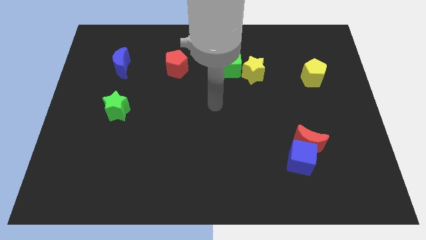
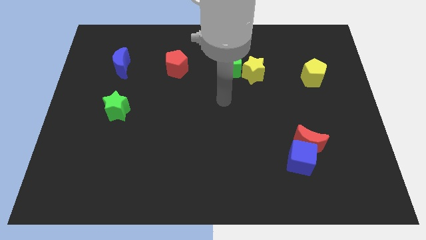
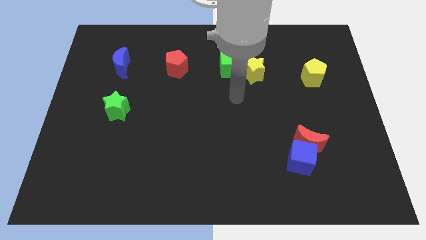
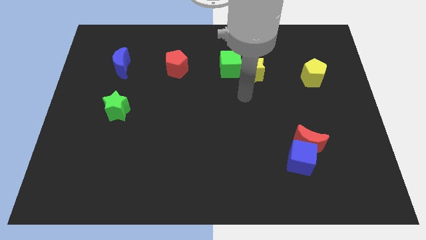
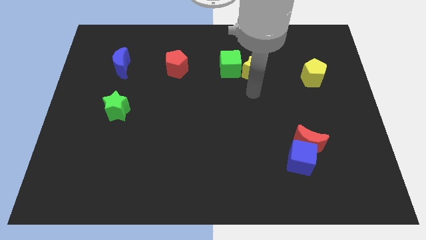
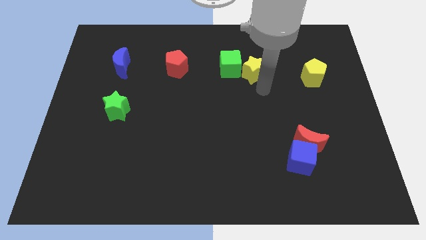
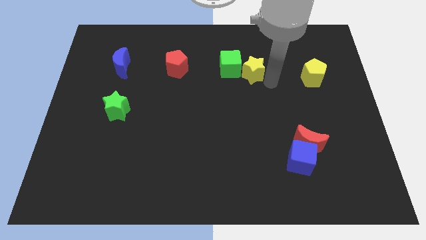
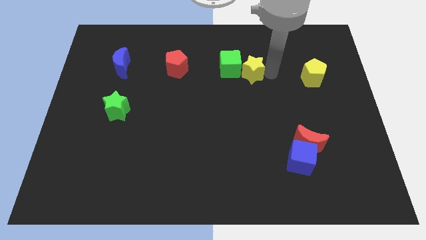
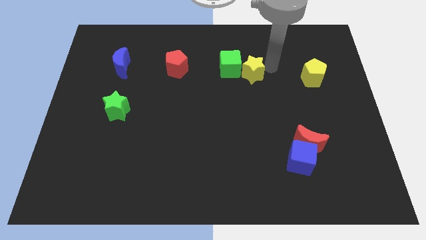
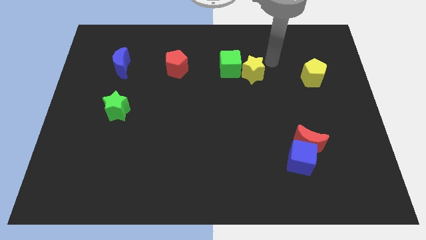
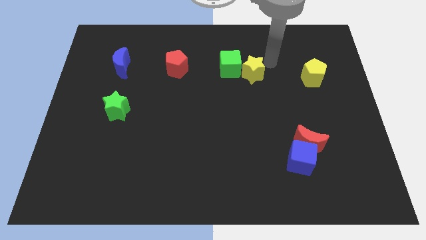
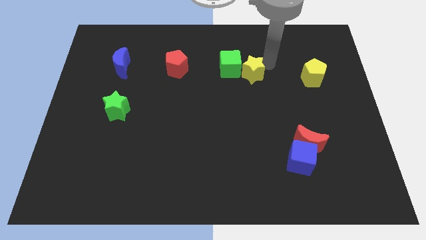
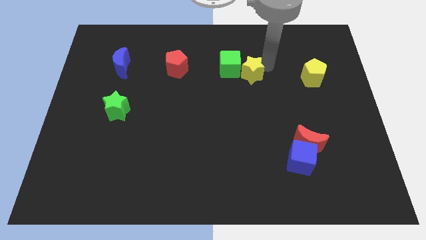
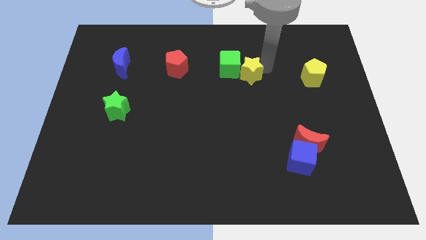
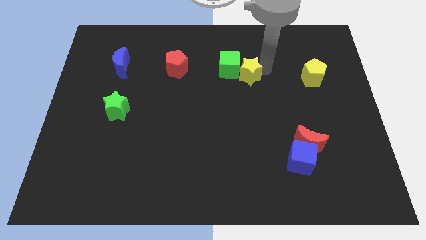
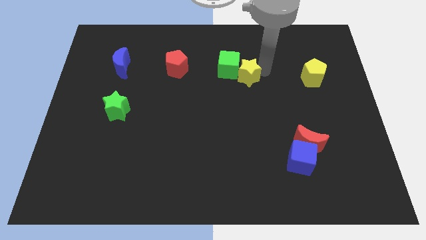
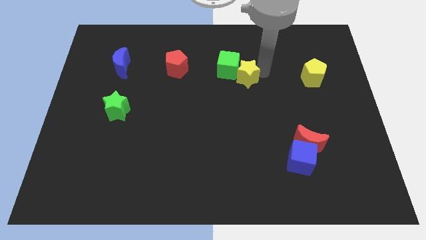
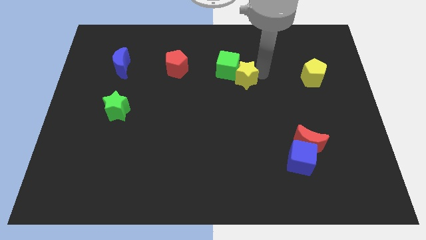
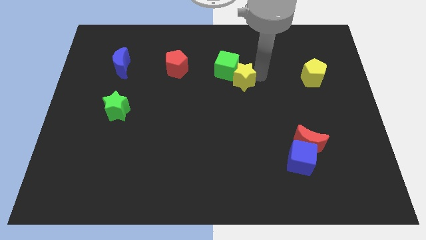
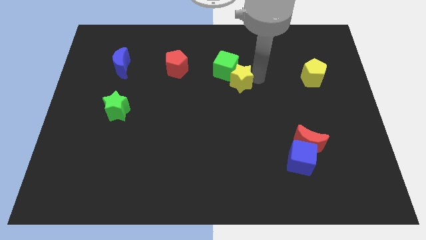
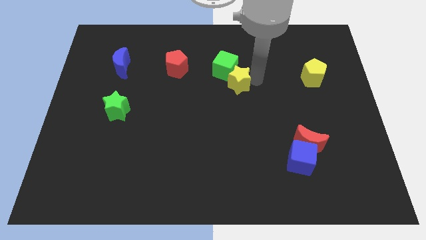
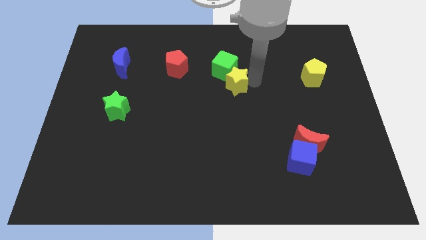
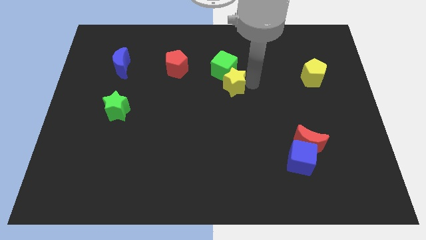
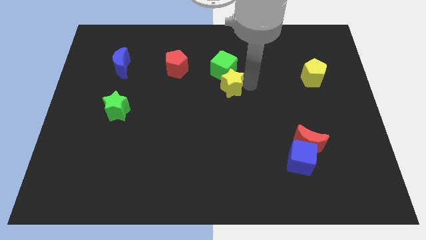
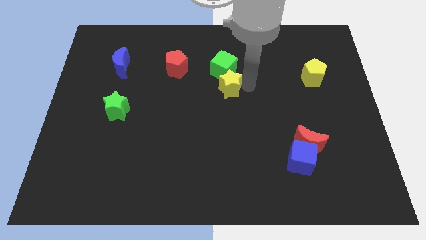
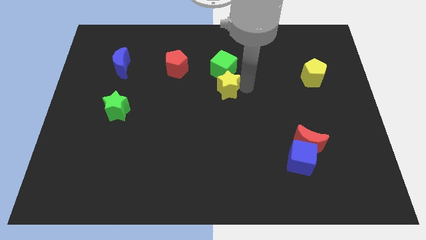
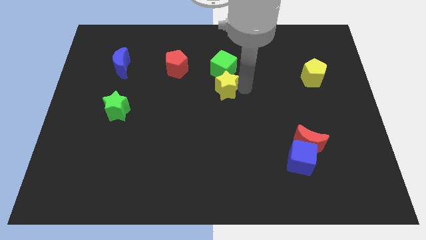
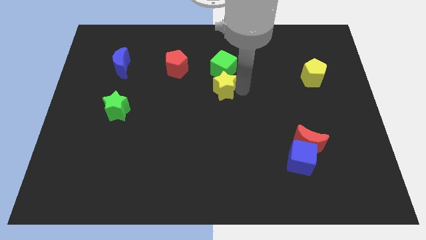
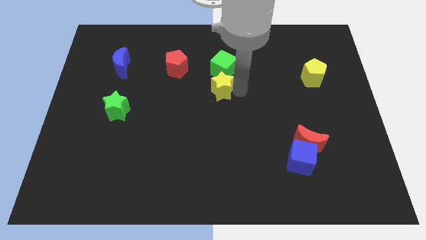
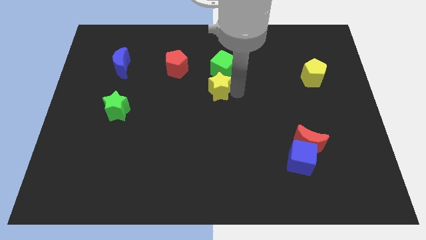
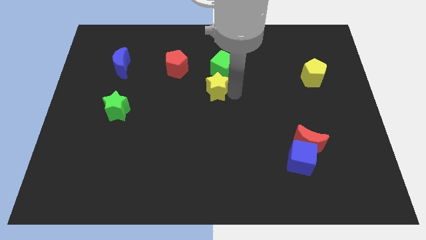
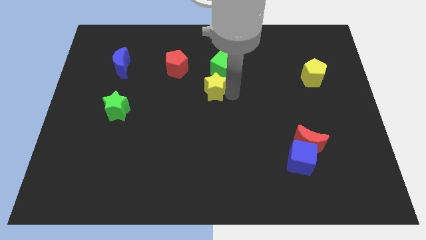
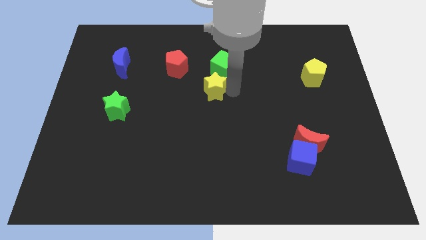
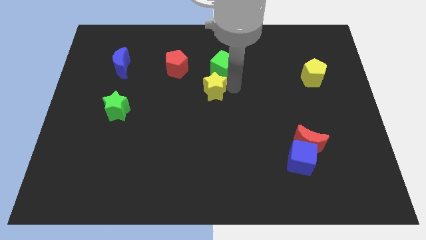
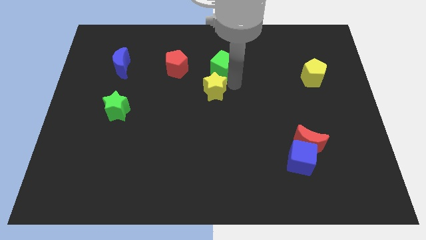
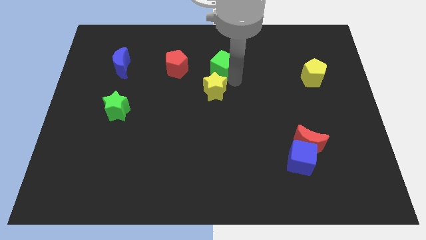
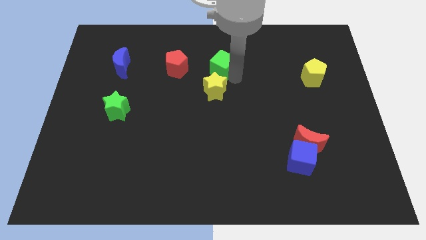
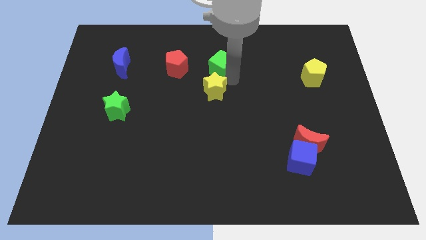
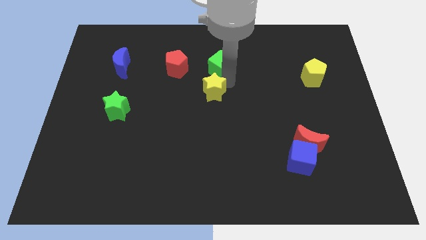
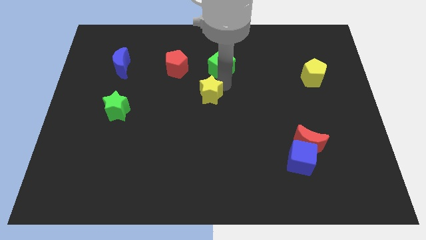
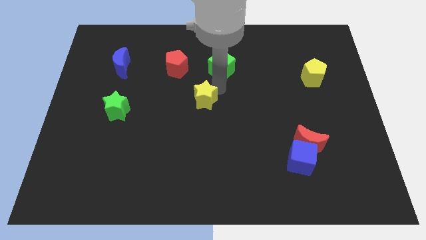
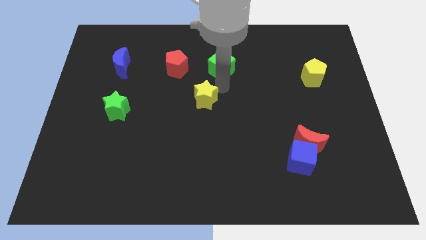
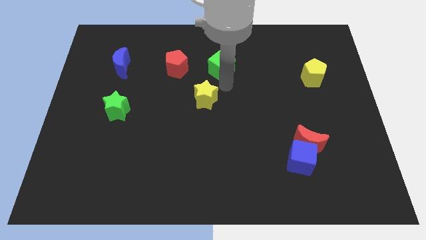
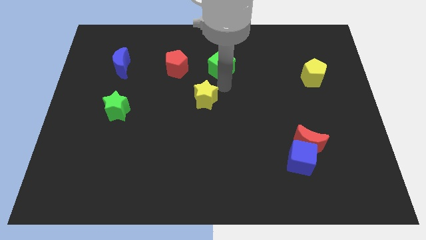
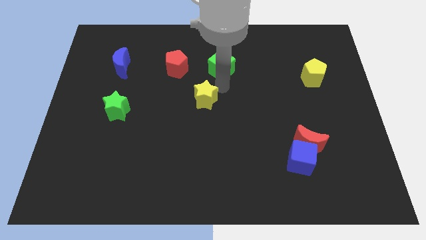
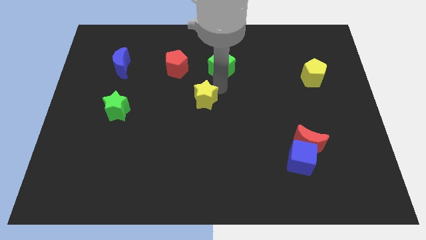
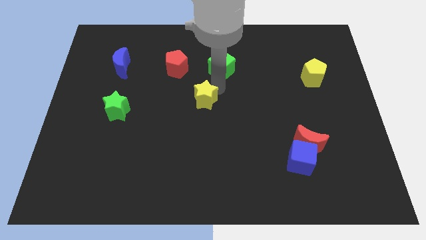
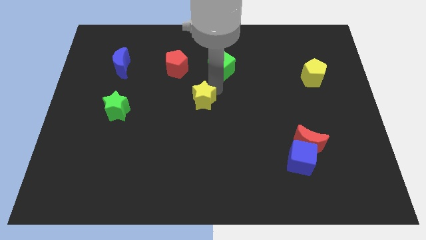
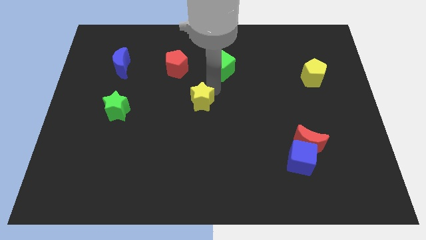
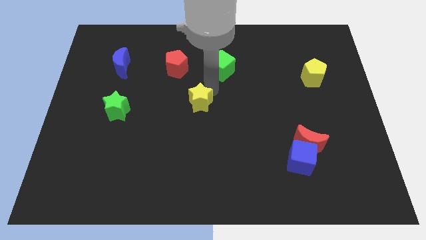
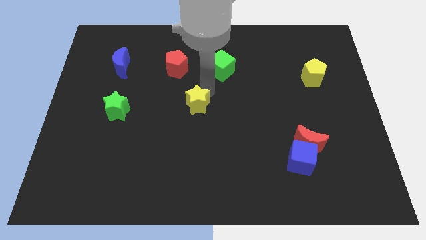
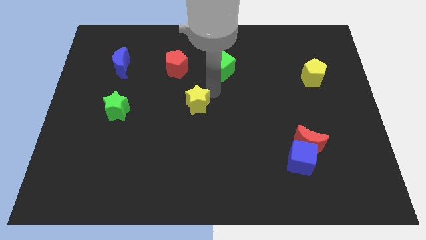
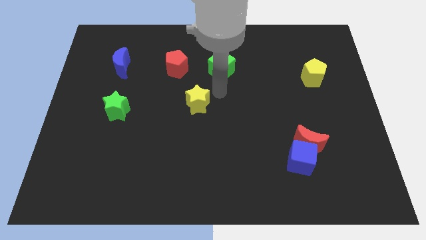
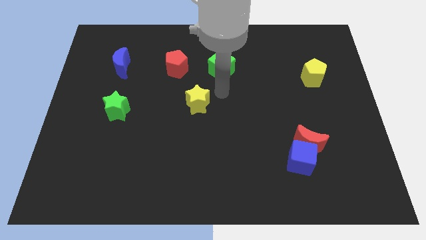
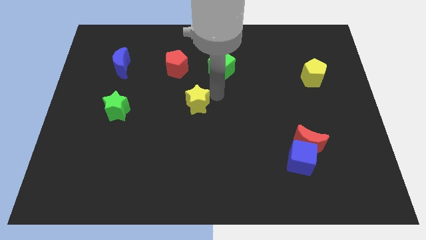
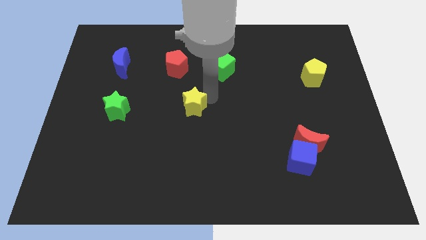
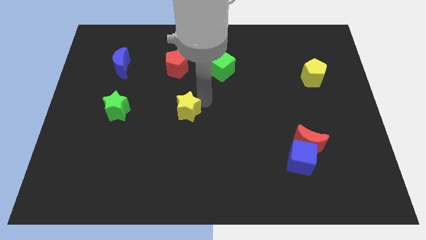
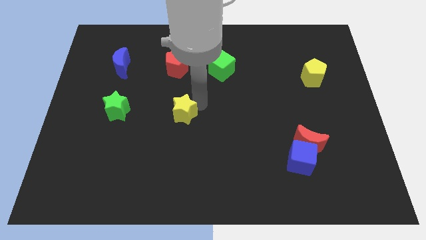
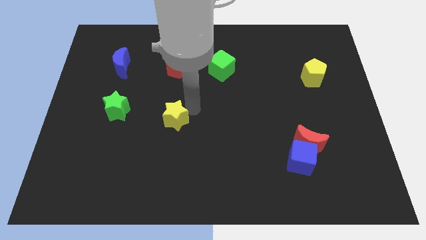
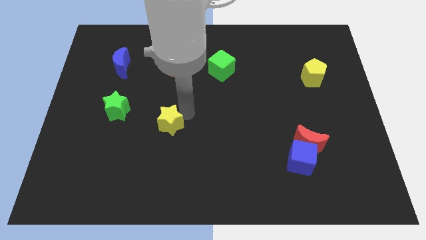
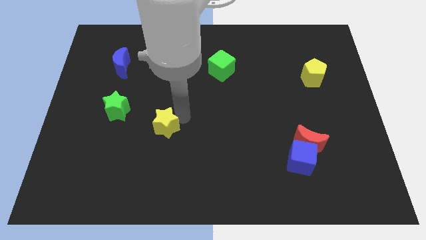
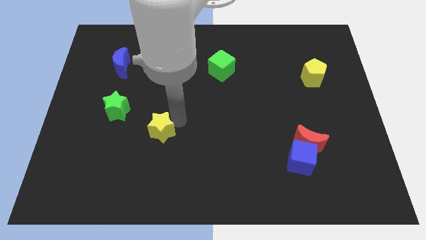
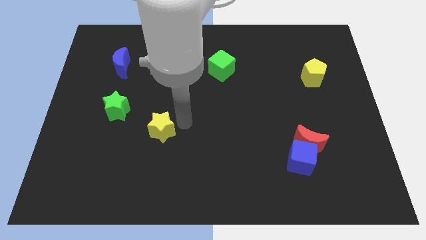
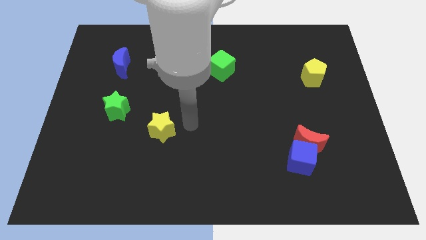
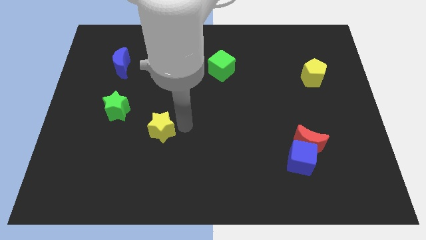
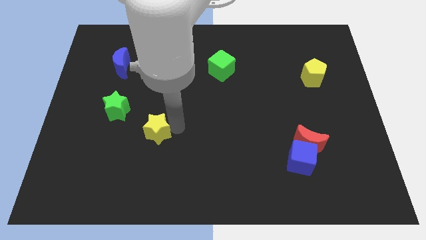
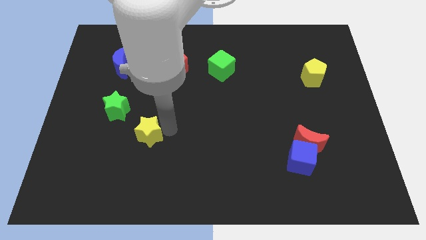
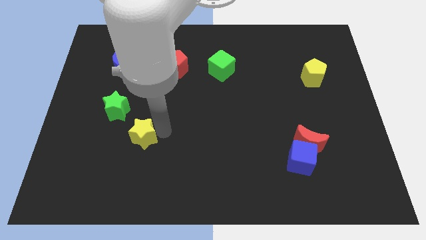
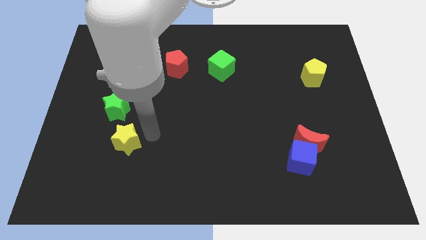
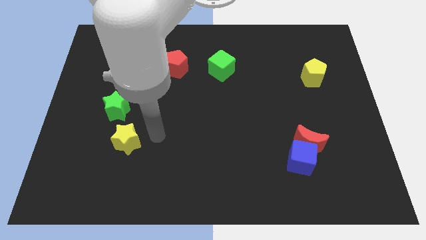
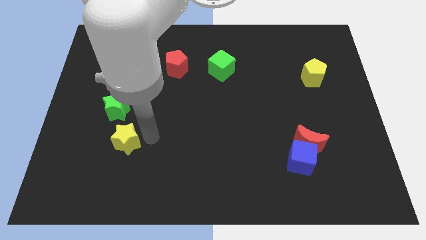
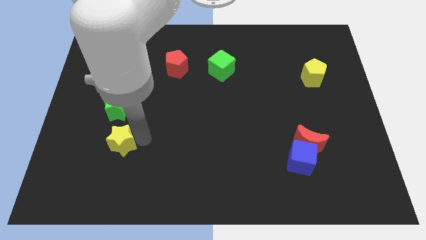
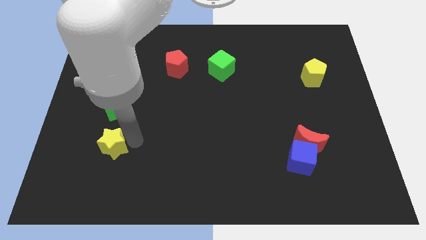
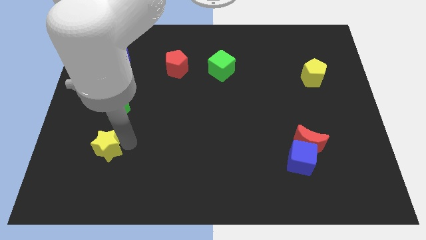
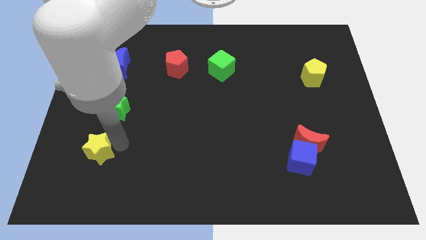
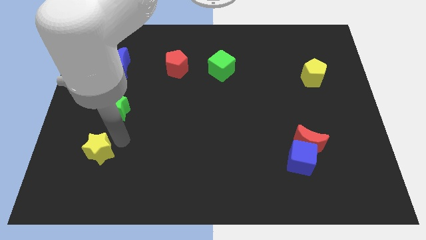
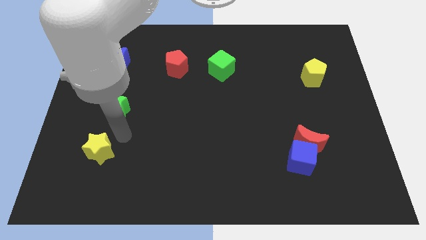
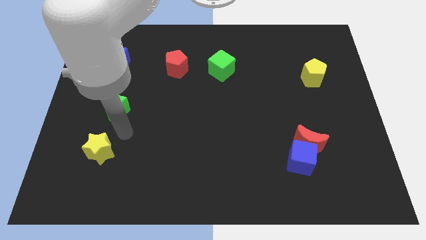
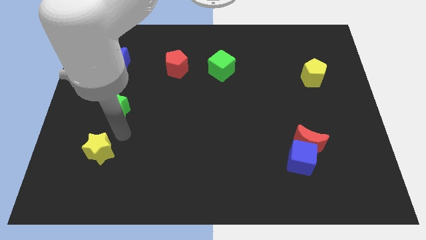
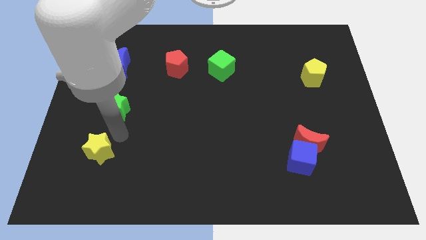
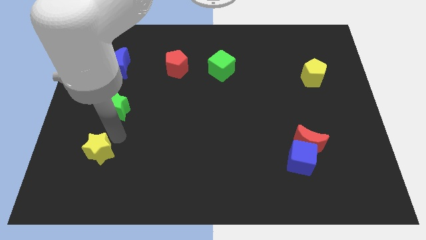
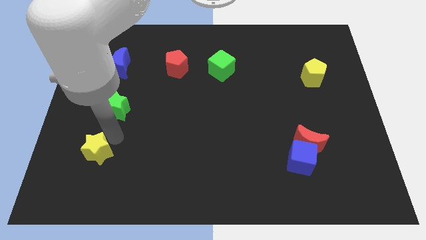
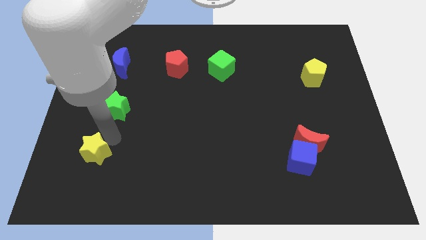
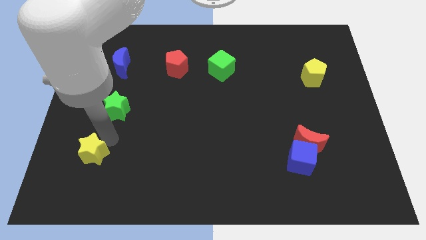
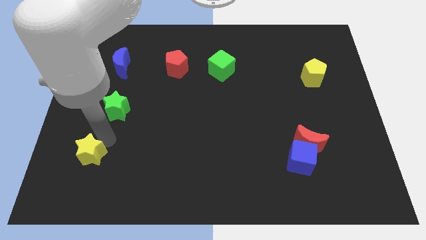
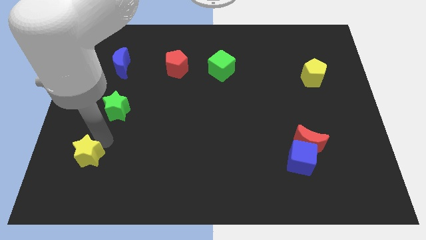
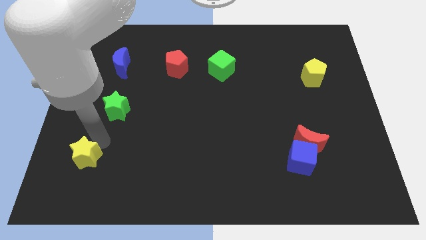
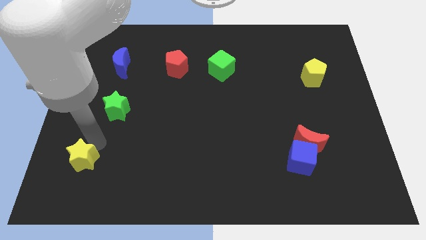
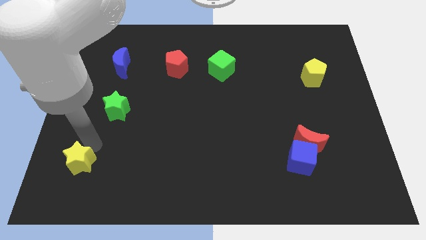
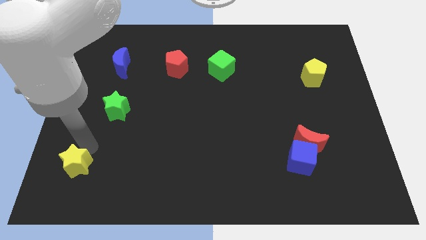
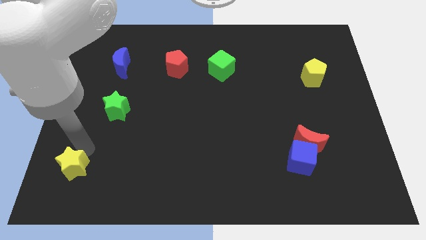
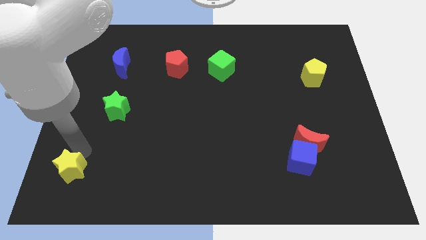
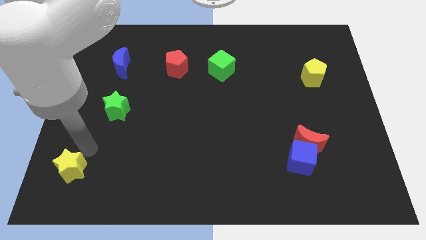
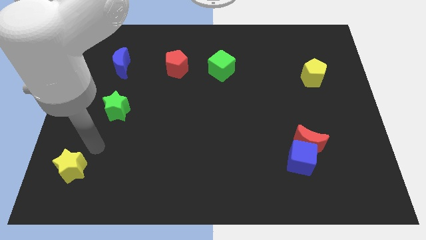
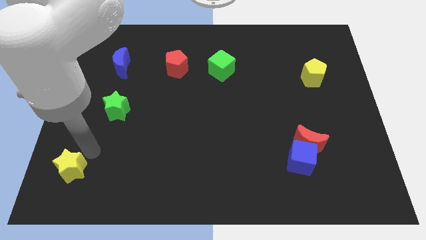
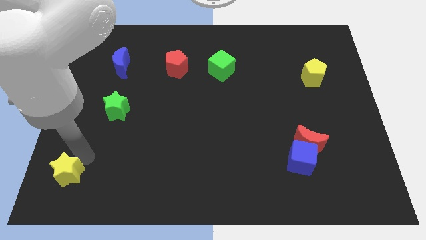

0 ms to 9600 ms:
slide the yellow star to the lower left corner
